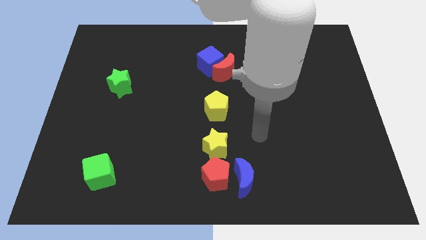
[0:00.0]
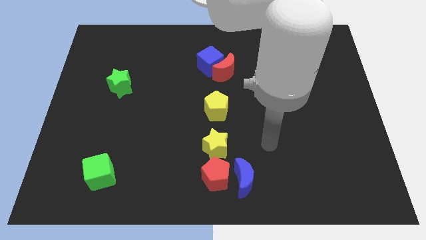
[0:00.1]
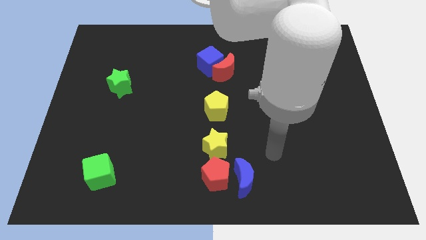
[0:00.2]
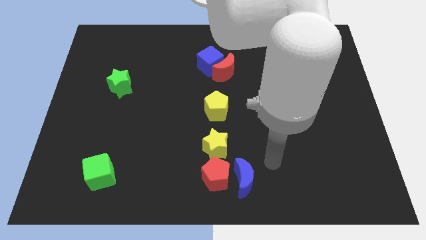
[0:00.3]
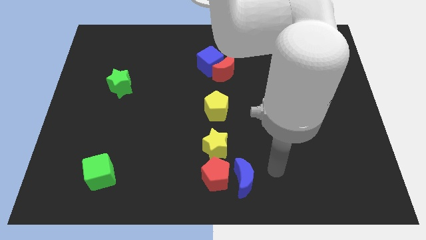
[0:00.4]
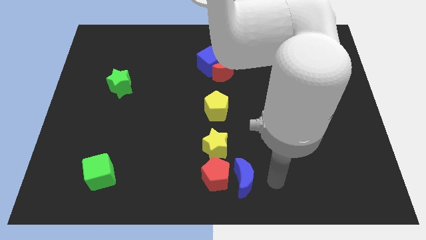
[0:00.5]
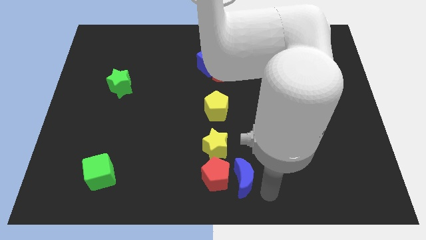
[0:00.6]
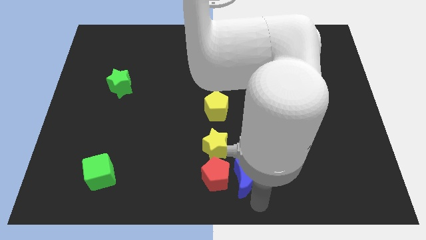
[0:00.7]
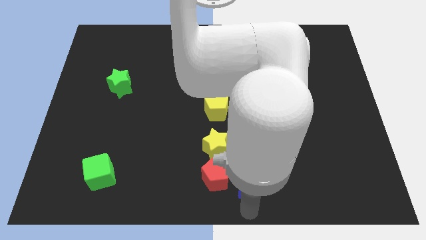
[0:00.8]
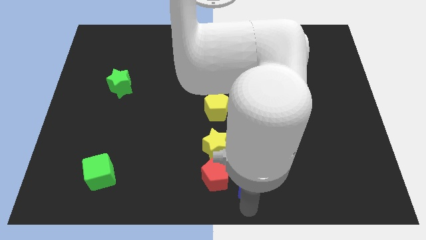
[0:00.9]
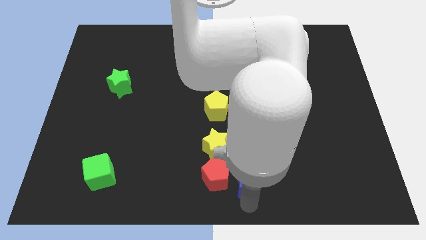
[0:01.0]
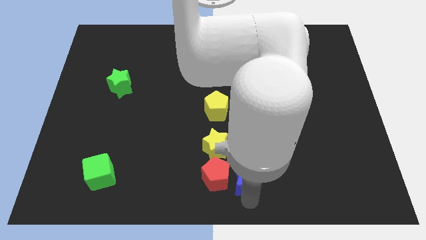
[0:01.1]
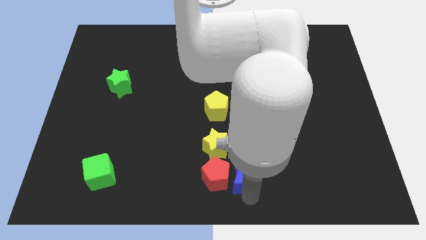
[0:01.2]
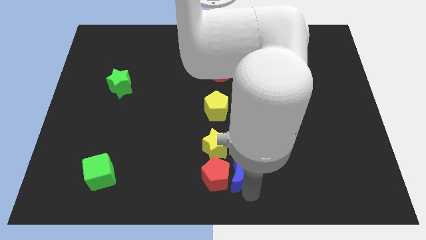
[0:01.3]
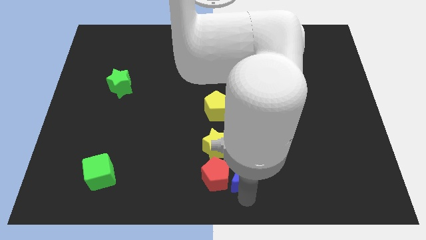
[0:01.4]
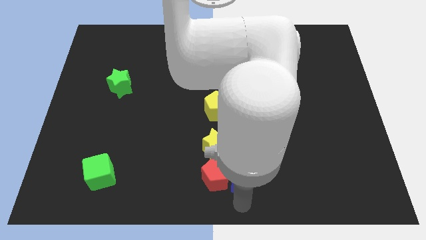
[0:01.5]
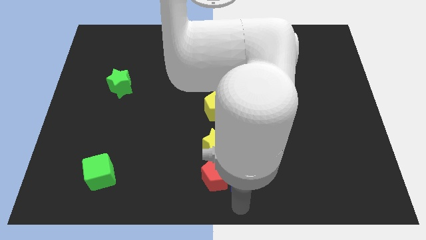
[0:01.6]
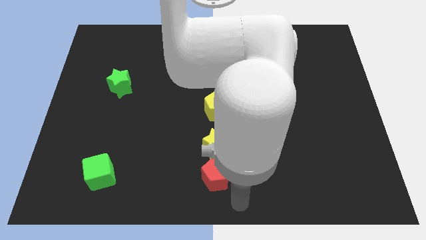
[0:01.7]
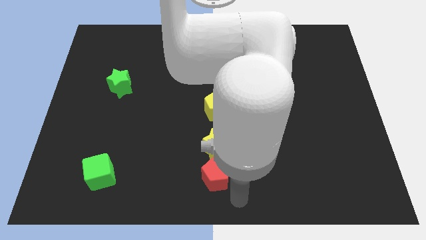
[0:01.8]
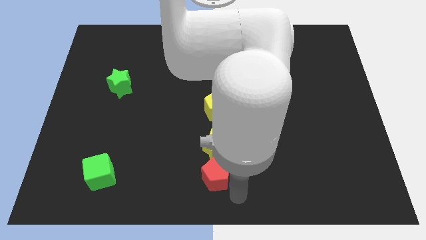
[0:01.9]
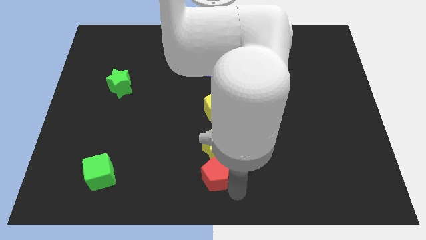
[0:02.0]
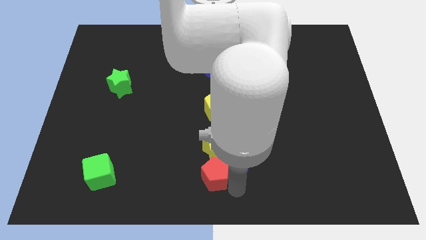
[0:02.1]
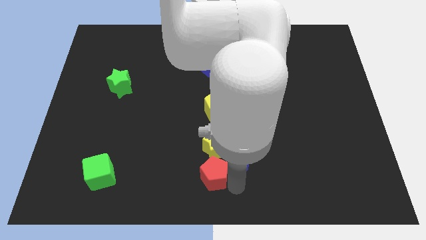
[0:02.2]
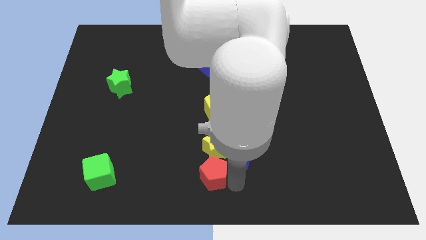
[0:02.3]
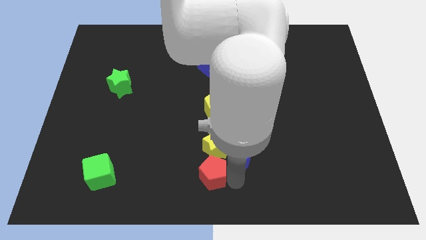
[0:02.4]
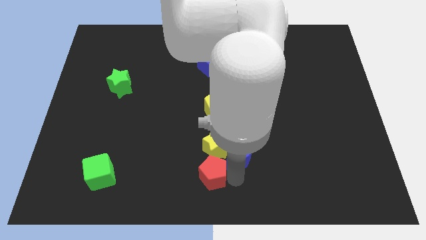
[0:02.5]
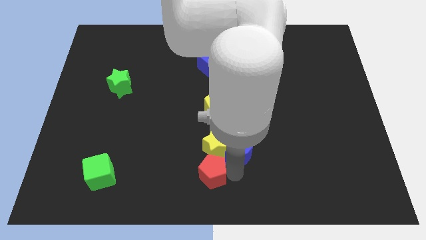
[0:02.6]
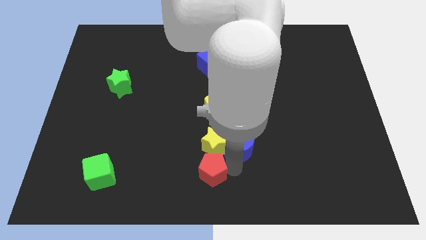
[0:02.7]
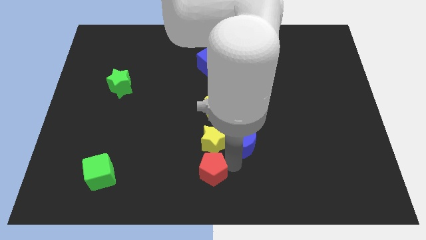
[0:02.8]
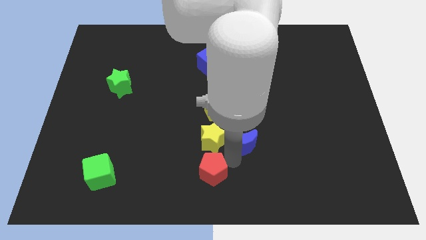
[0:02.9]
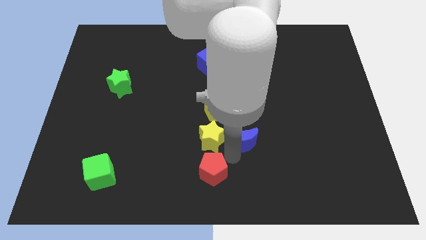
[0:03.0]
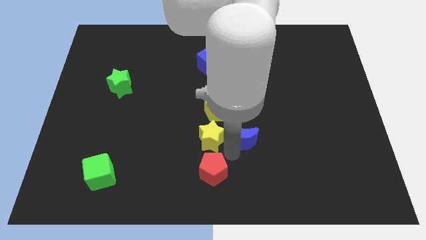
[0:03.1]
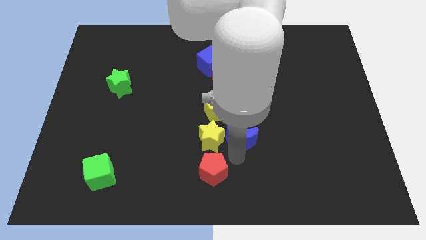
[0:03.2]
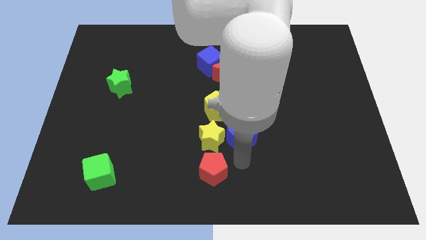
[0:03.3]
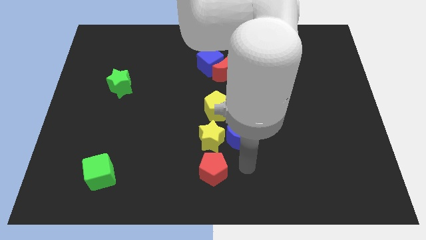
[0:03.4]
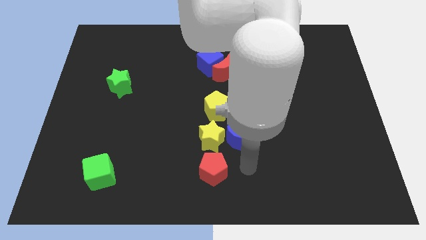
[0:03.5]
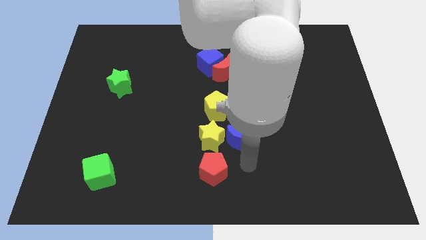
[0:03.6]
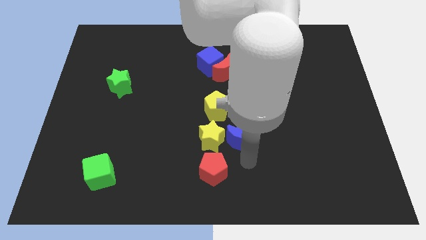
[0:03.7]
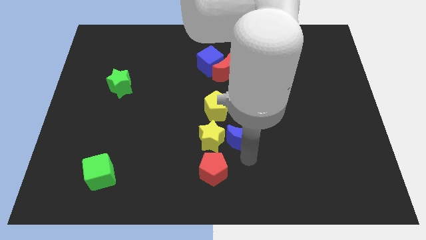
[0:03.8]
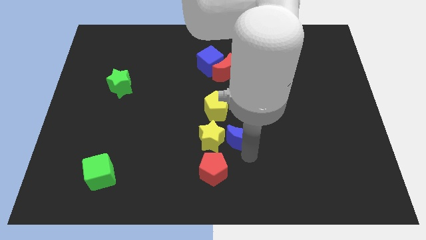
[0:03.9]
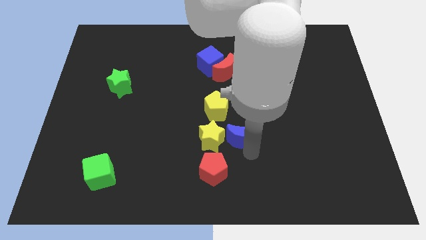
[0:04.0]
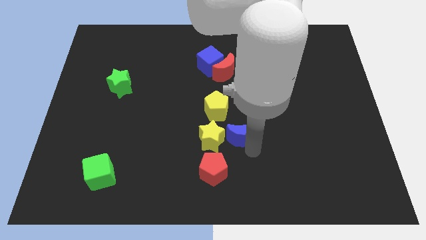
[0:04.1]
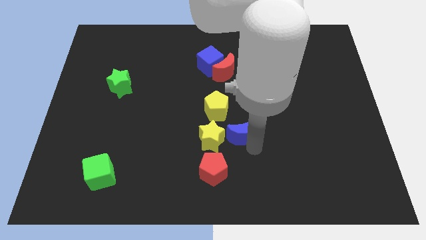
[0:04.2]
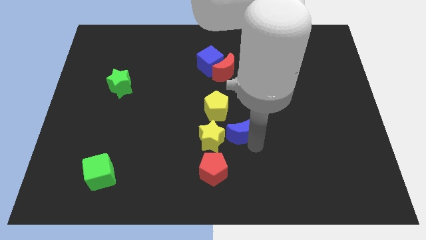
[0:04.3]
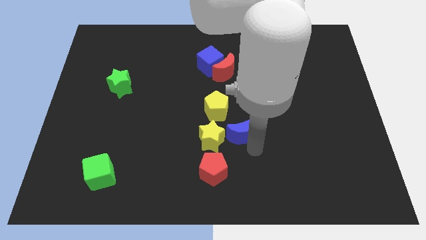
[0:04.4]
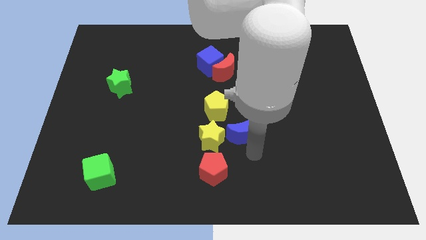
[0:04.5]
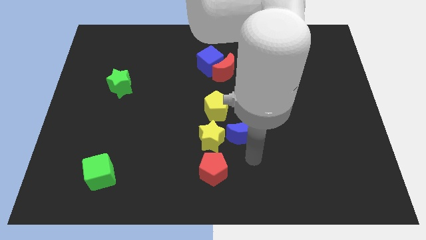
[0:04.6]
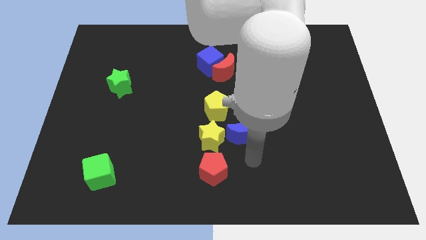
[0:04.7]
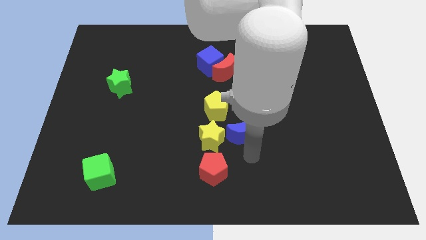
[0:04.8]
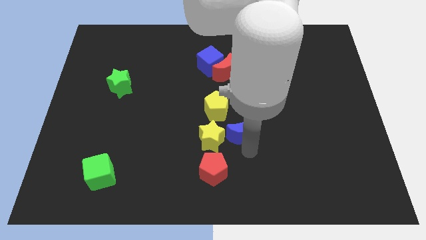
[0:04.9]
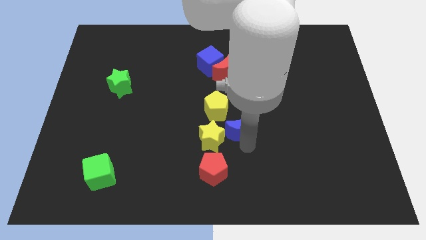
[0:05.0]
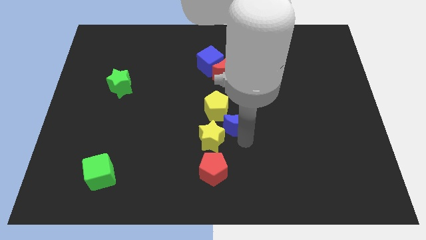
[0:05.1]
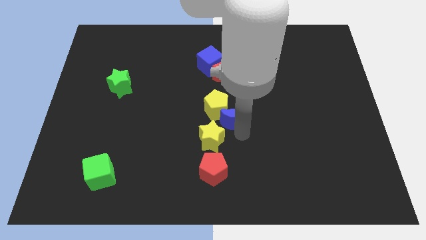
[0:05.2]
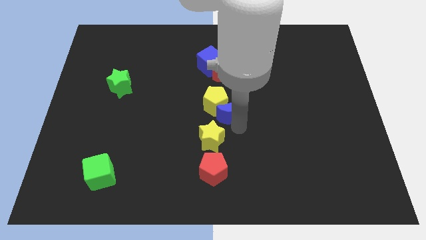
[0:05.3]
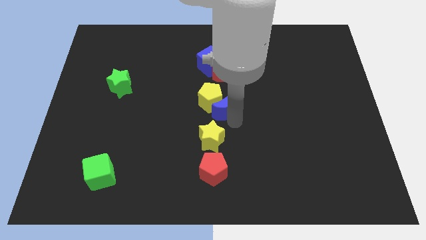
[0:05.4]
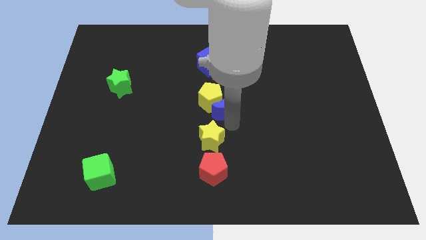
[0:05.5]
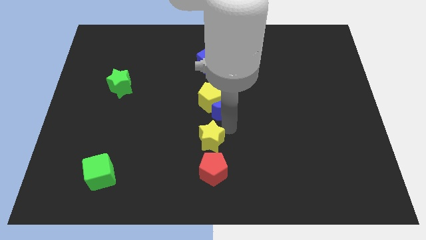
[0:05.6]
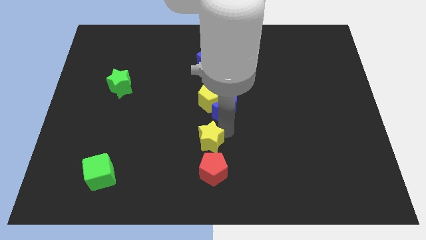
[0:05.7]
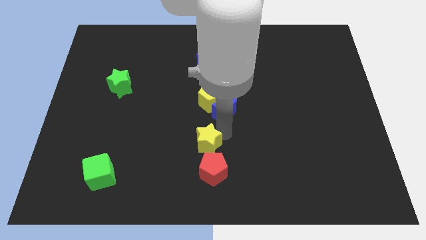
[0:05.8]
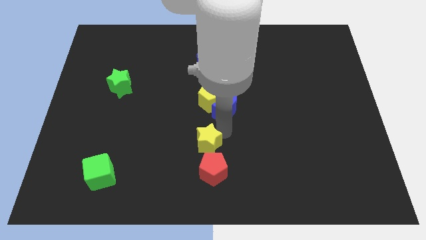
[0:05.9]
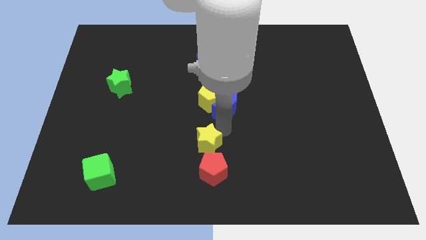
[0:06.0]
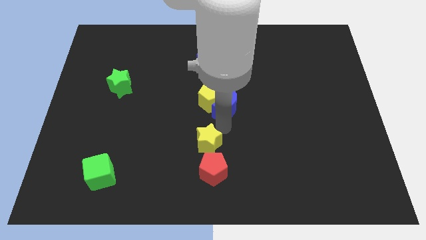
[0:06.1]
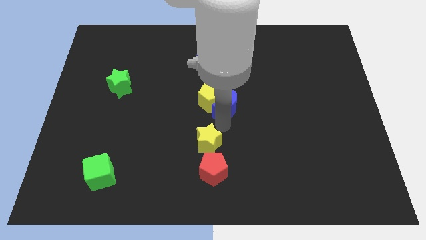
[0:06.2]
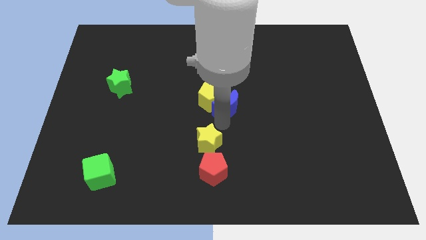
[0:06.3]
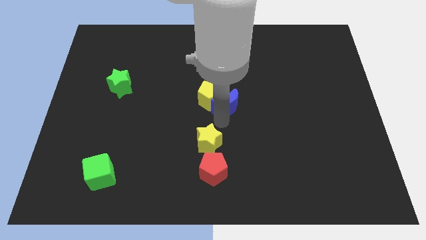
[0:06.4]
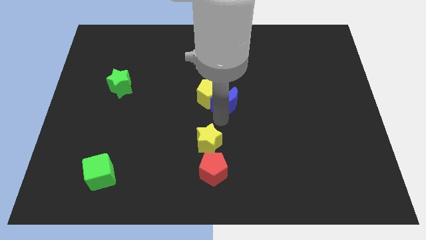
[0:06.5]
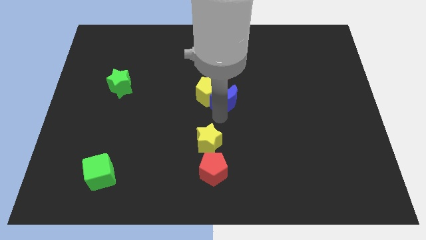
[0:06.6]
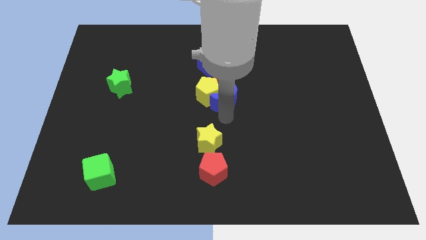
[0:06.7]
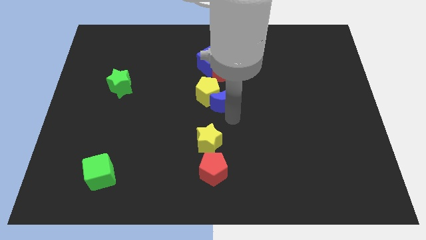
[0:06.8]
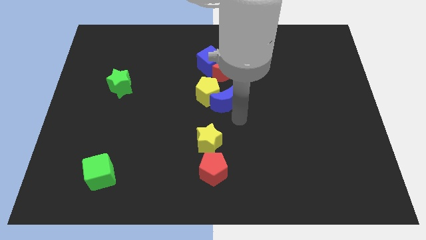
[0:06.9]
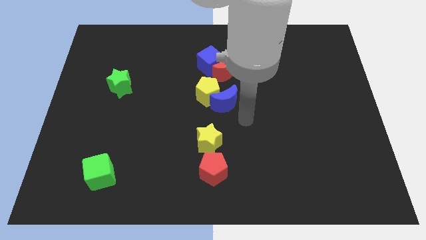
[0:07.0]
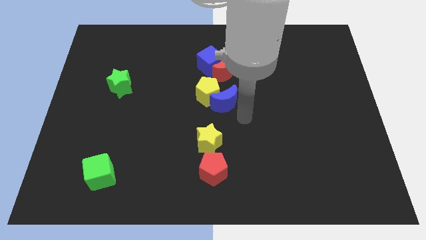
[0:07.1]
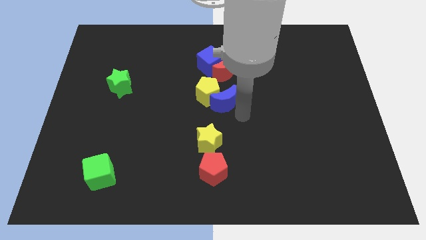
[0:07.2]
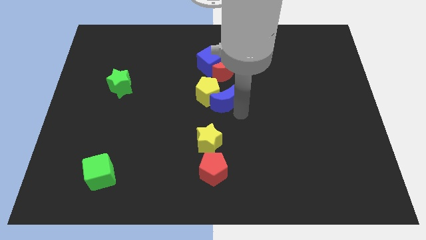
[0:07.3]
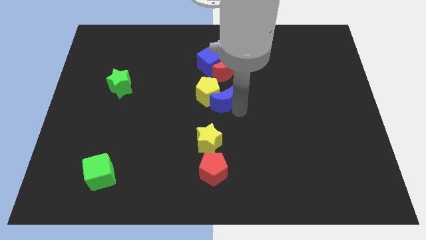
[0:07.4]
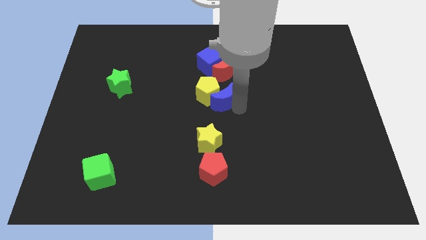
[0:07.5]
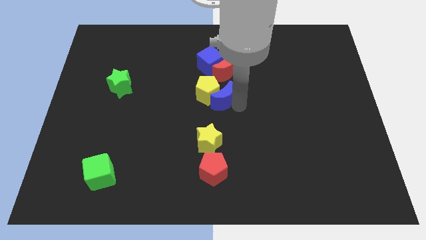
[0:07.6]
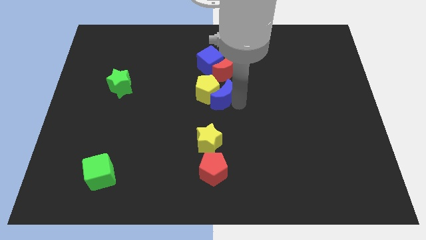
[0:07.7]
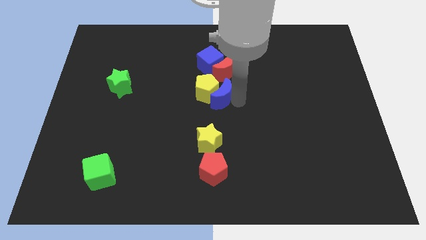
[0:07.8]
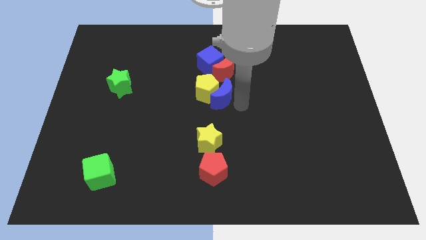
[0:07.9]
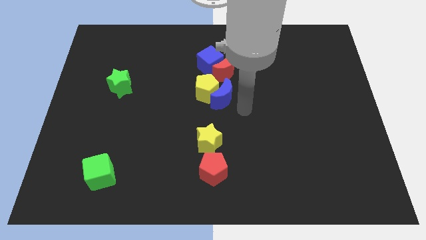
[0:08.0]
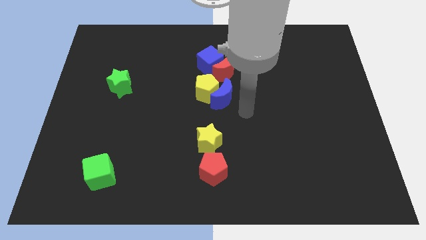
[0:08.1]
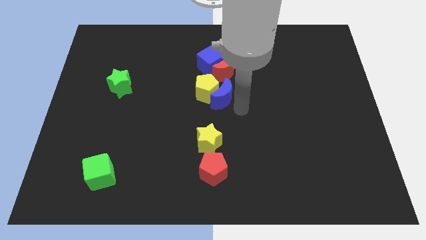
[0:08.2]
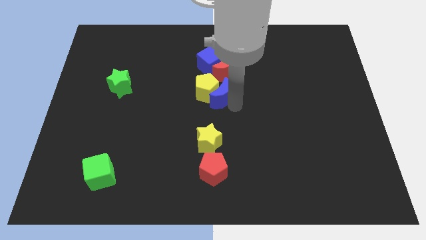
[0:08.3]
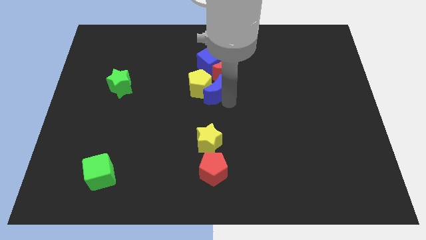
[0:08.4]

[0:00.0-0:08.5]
move the blue moon to the bottom left side of the red moon
